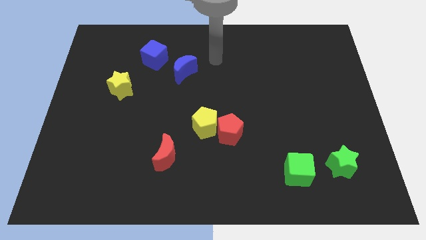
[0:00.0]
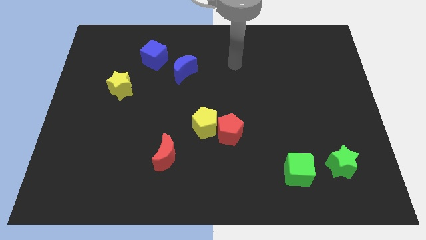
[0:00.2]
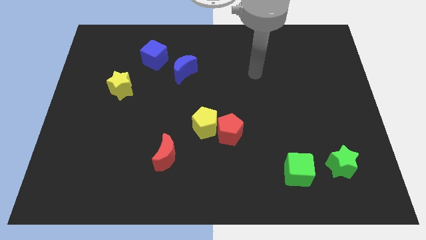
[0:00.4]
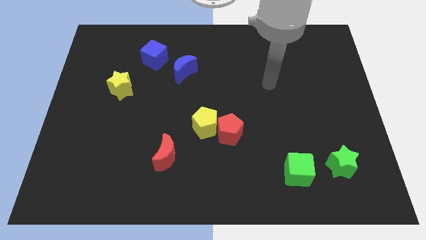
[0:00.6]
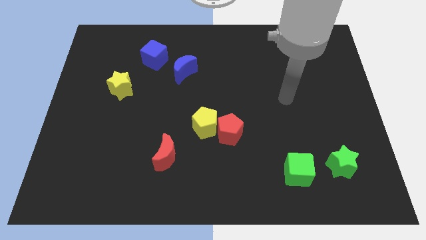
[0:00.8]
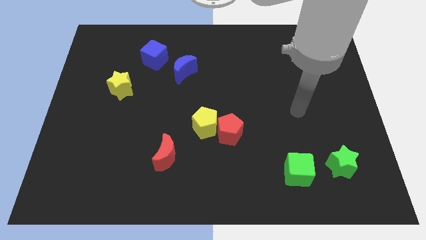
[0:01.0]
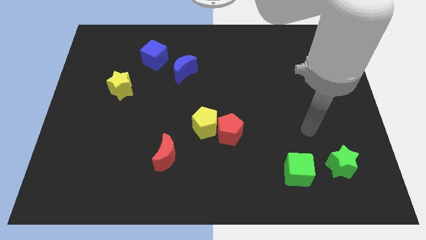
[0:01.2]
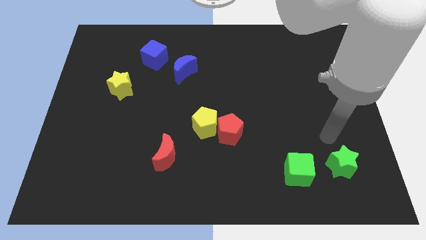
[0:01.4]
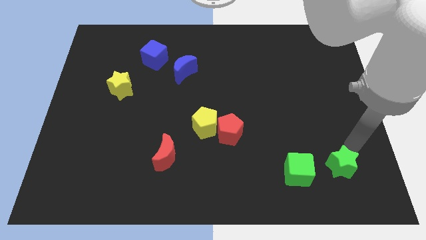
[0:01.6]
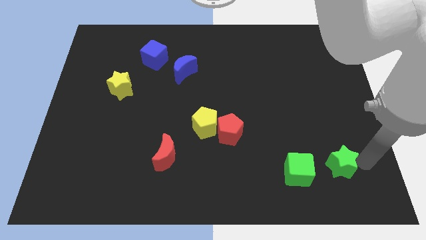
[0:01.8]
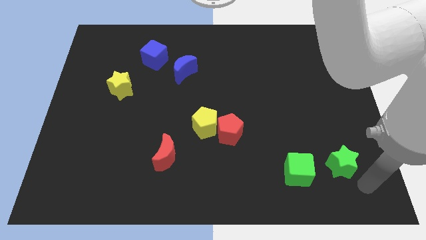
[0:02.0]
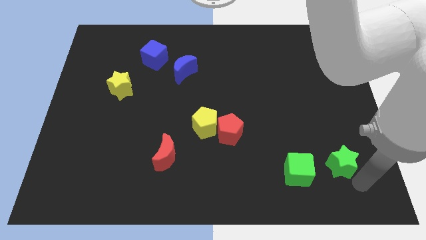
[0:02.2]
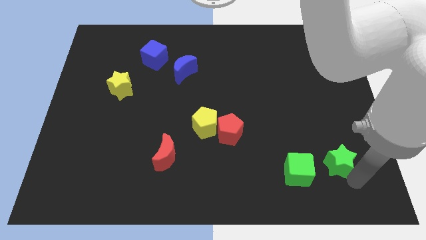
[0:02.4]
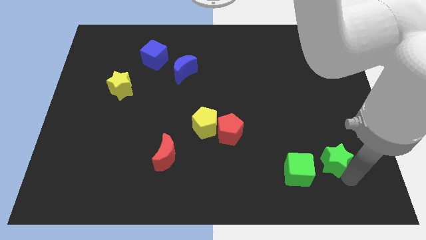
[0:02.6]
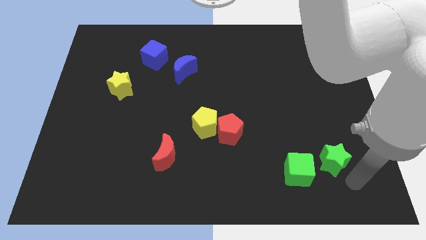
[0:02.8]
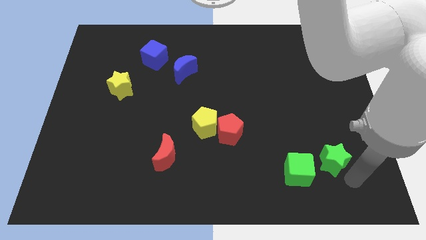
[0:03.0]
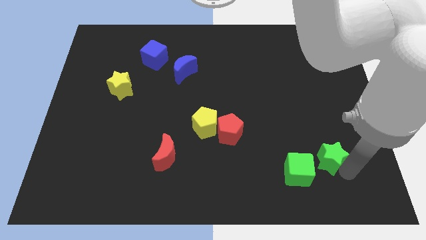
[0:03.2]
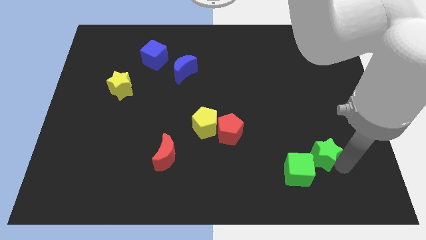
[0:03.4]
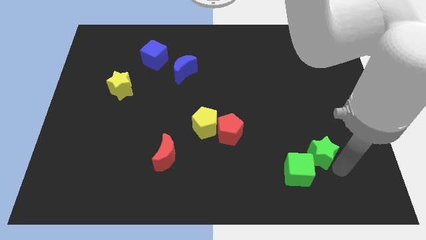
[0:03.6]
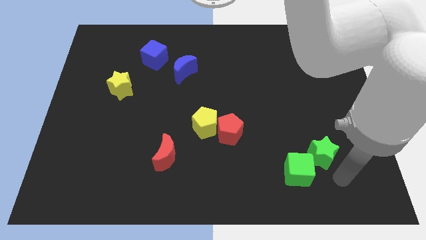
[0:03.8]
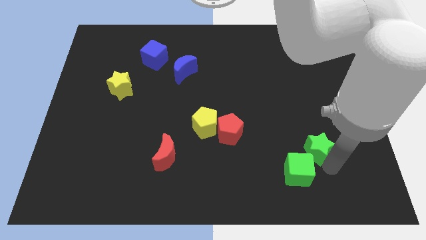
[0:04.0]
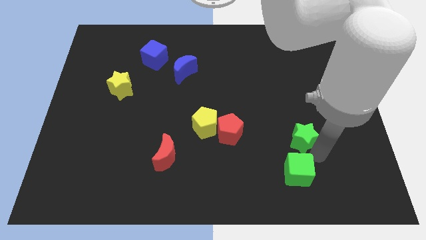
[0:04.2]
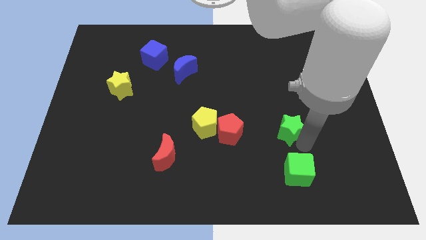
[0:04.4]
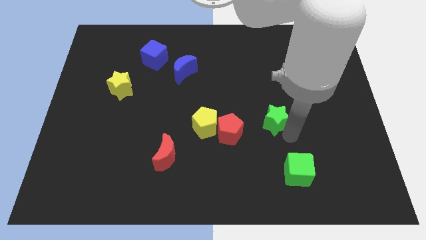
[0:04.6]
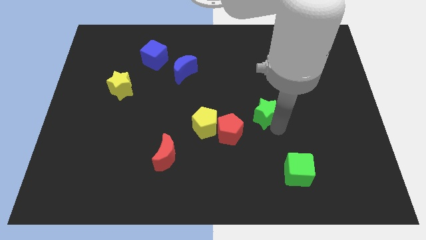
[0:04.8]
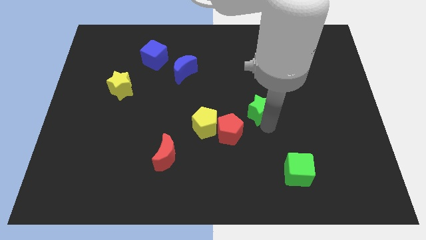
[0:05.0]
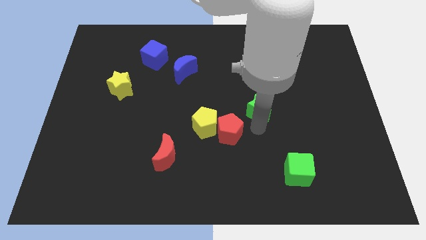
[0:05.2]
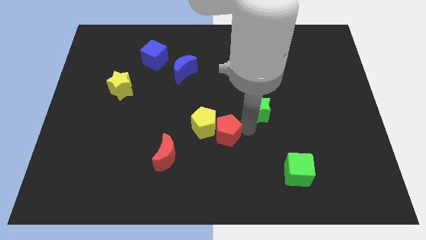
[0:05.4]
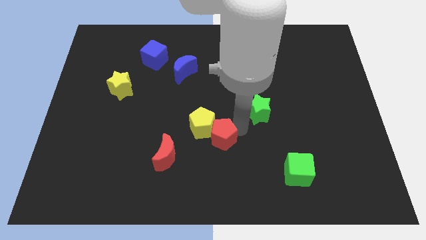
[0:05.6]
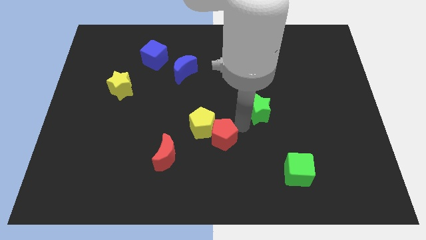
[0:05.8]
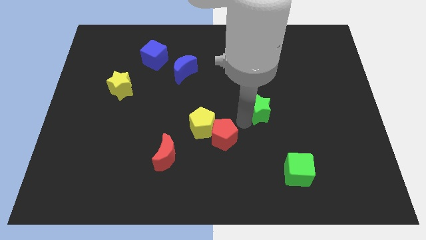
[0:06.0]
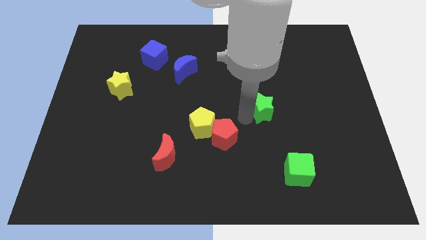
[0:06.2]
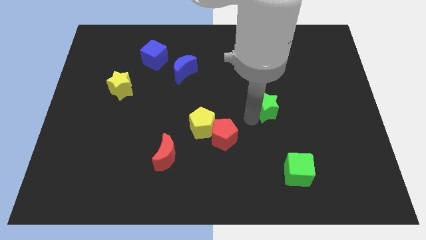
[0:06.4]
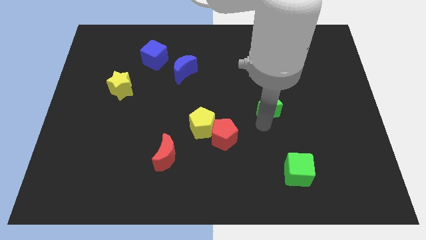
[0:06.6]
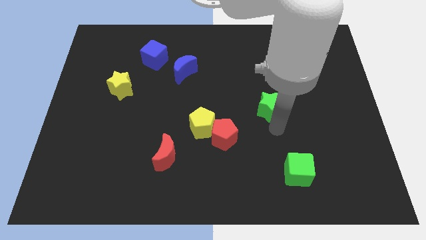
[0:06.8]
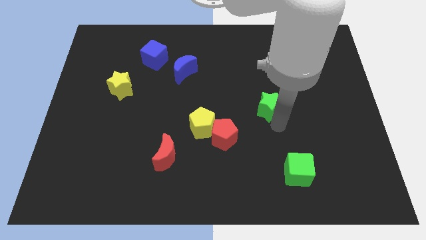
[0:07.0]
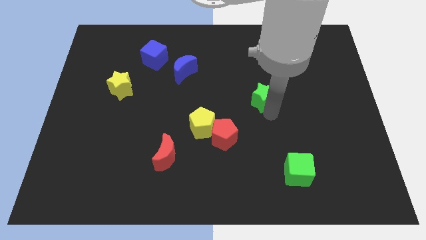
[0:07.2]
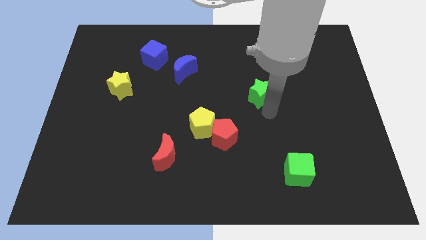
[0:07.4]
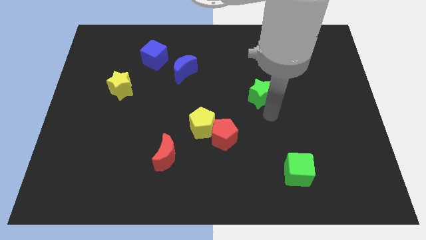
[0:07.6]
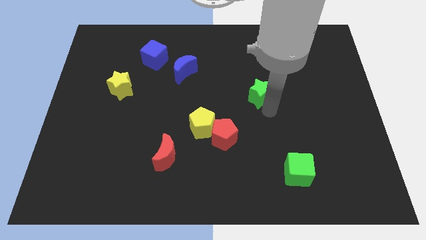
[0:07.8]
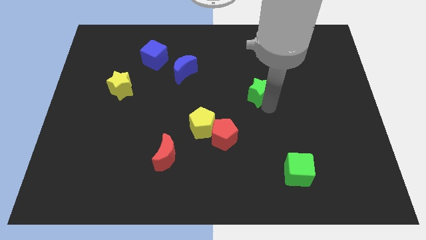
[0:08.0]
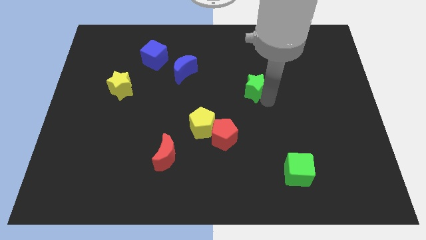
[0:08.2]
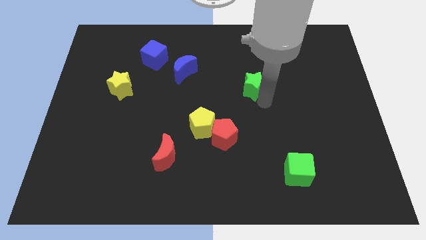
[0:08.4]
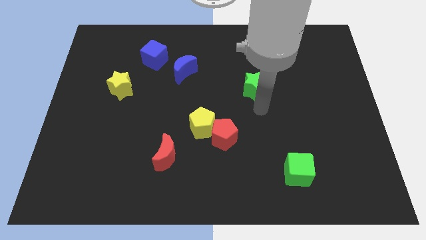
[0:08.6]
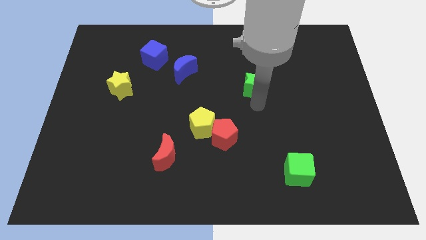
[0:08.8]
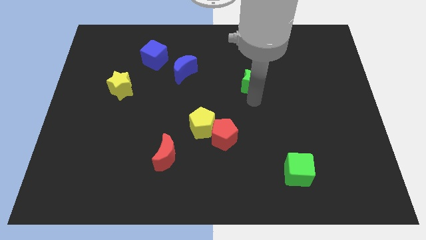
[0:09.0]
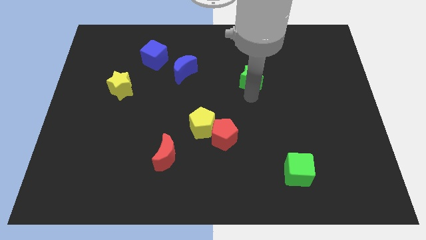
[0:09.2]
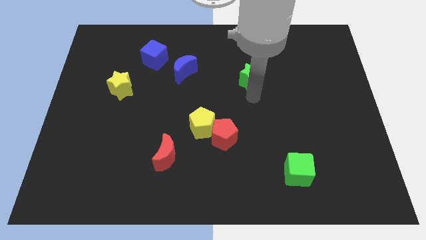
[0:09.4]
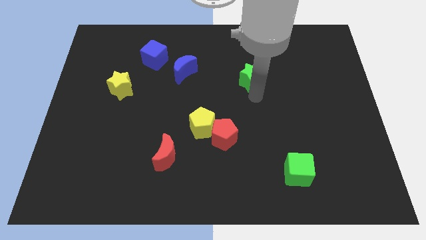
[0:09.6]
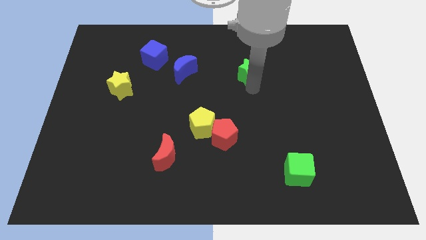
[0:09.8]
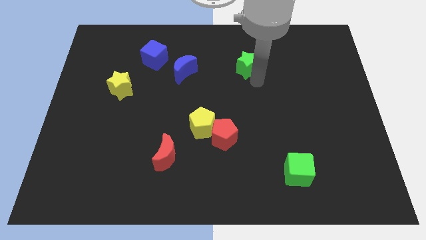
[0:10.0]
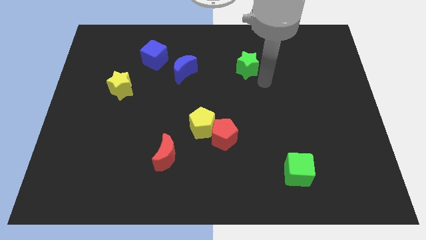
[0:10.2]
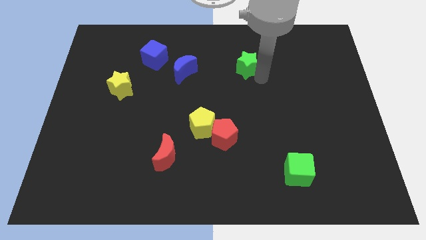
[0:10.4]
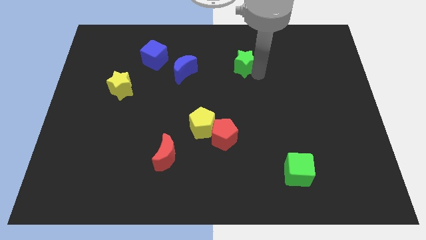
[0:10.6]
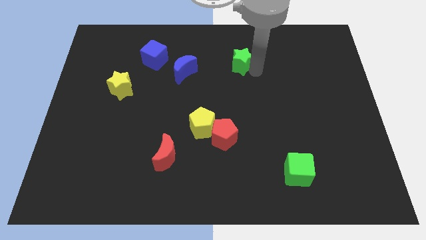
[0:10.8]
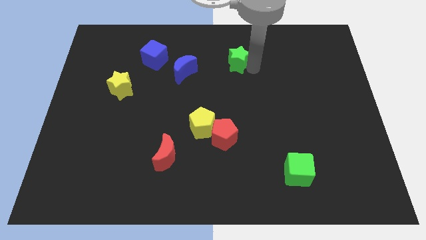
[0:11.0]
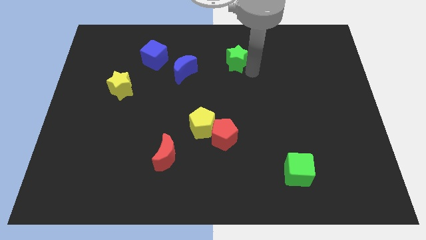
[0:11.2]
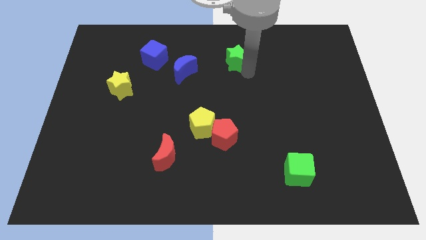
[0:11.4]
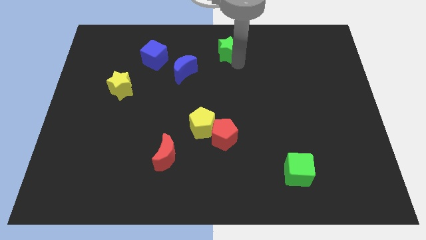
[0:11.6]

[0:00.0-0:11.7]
slide the green star to the top side

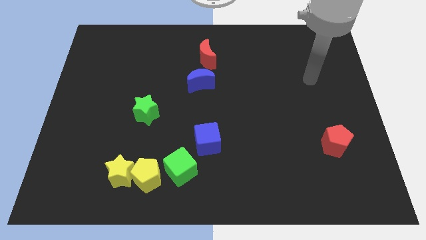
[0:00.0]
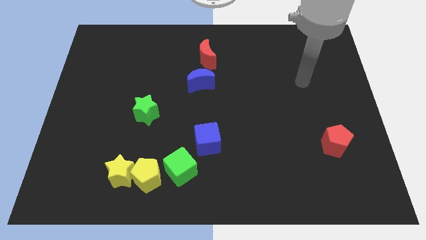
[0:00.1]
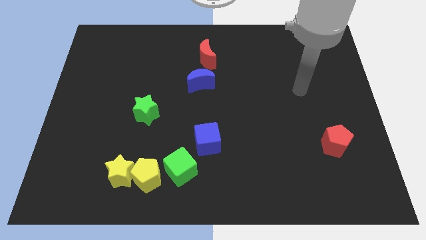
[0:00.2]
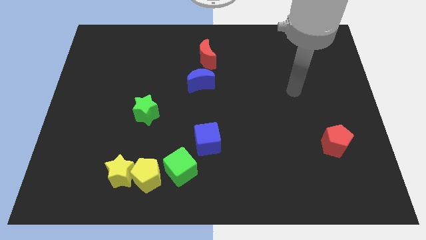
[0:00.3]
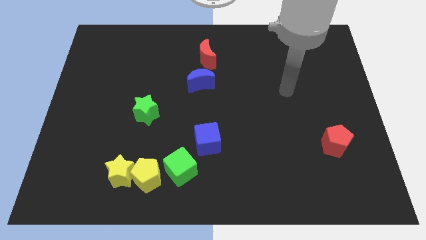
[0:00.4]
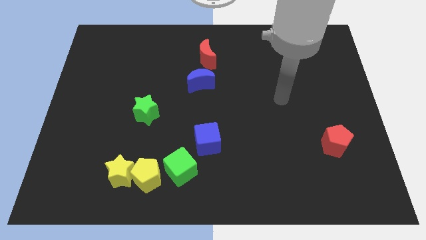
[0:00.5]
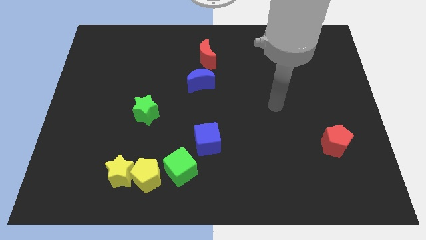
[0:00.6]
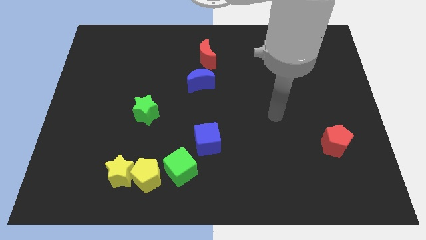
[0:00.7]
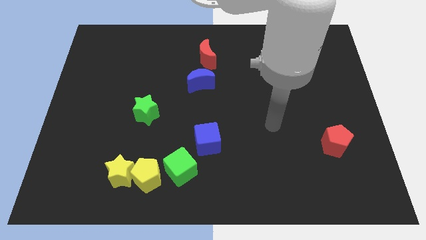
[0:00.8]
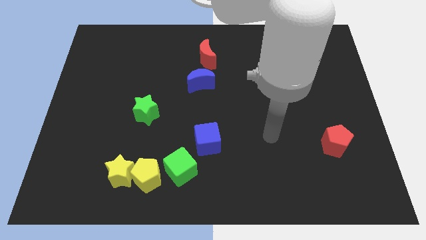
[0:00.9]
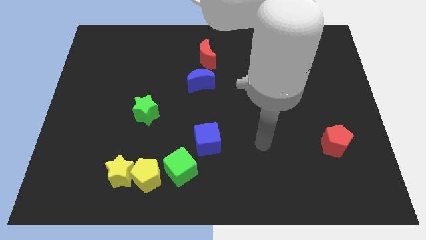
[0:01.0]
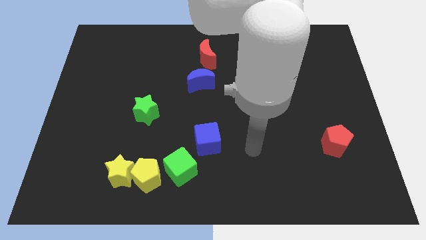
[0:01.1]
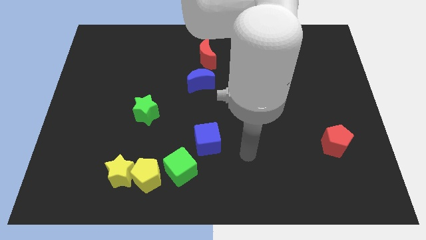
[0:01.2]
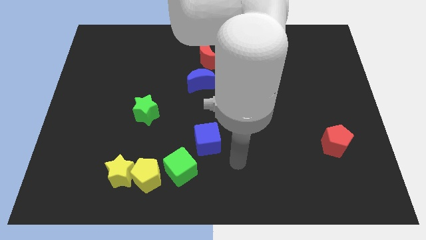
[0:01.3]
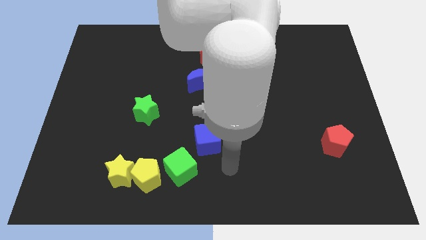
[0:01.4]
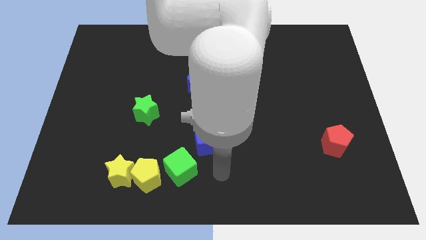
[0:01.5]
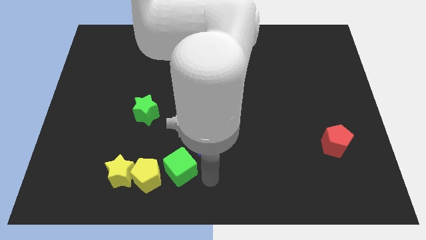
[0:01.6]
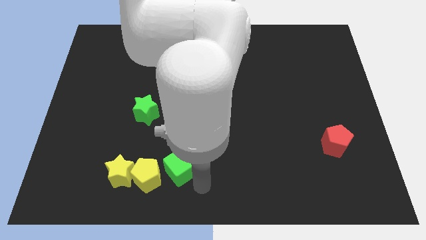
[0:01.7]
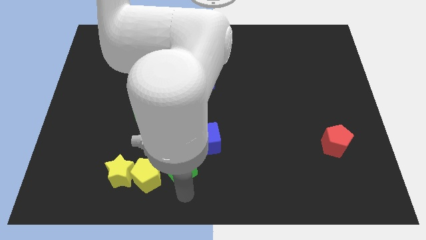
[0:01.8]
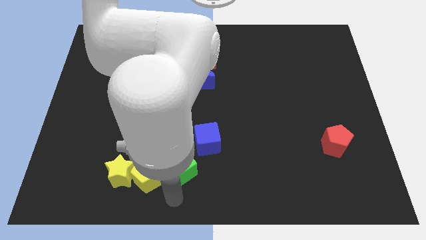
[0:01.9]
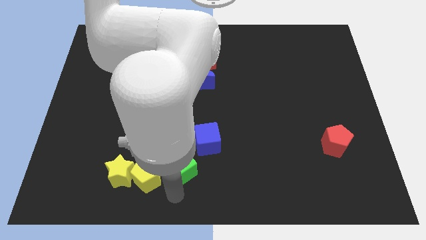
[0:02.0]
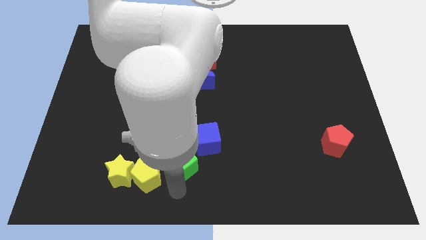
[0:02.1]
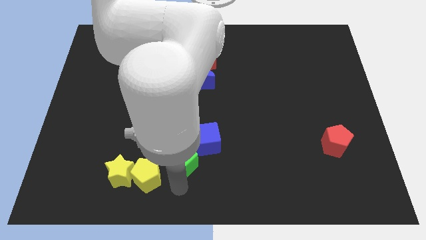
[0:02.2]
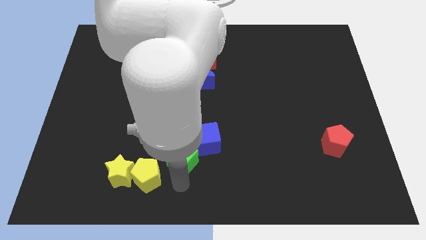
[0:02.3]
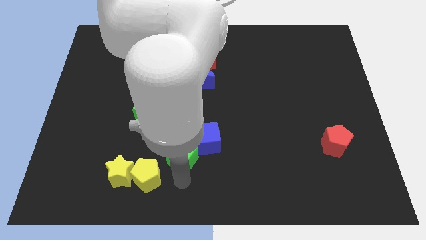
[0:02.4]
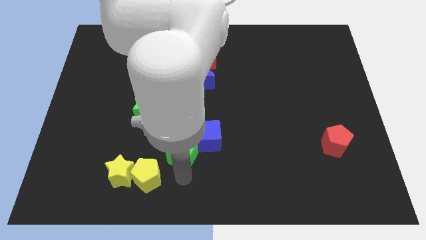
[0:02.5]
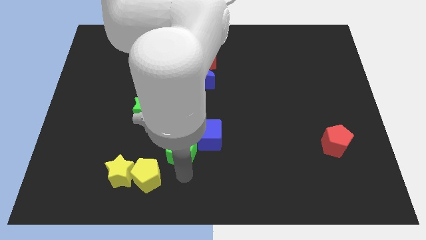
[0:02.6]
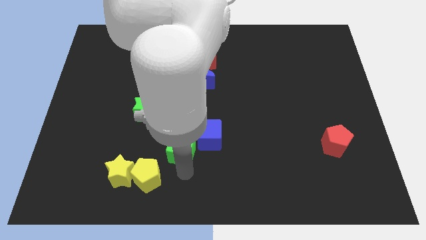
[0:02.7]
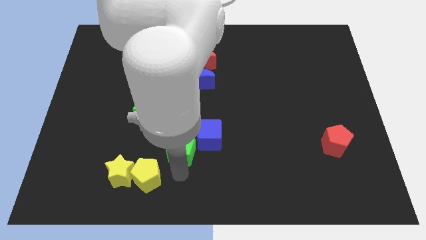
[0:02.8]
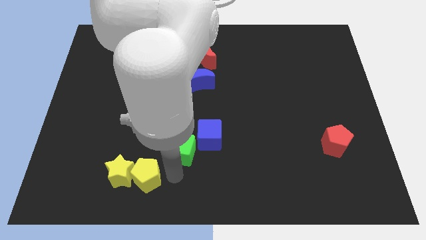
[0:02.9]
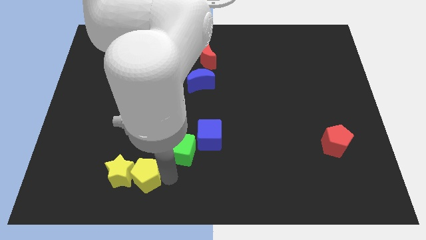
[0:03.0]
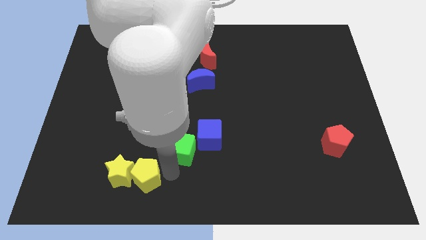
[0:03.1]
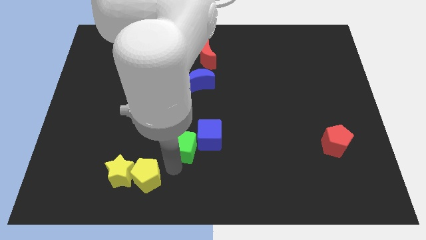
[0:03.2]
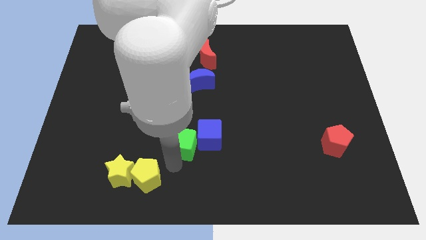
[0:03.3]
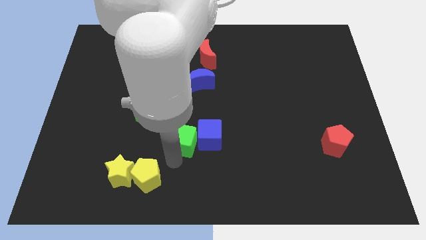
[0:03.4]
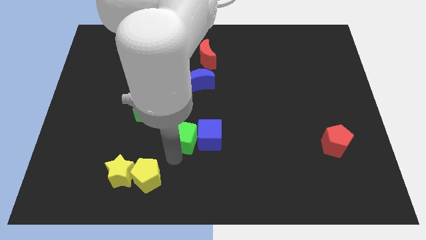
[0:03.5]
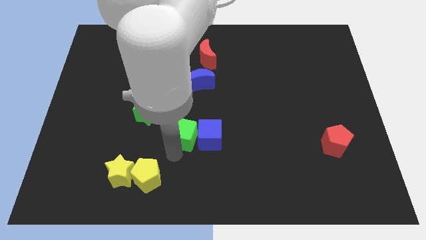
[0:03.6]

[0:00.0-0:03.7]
push the green cube to the middle
